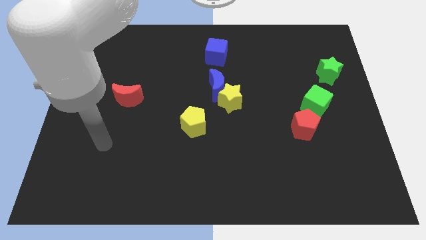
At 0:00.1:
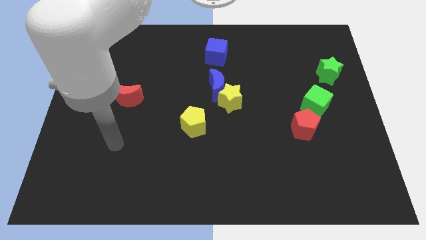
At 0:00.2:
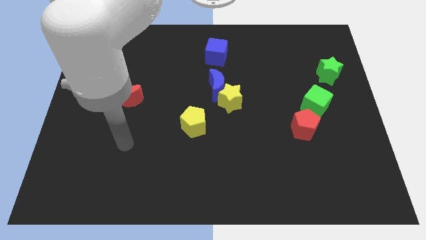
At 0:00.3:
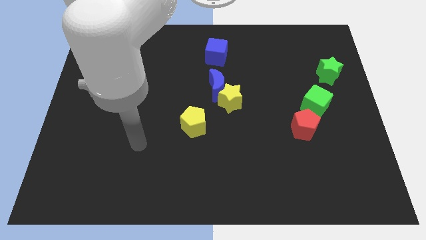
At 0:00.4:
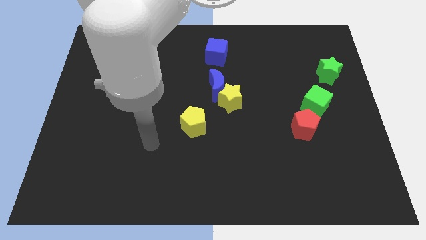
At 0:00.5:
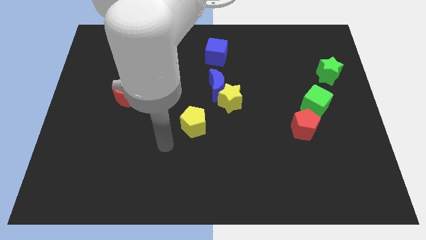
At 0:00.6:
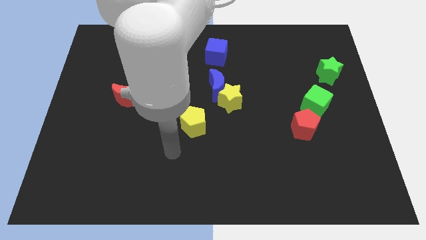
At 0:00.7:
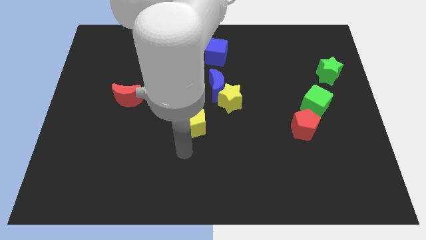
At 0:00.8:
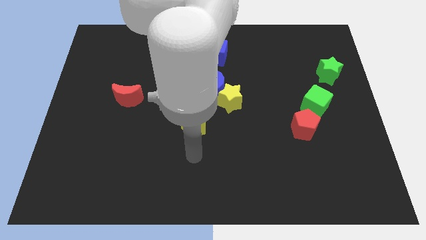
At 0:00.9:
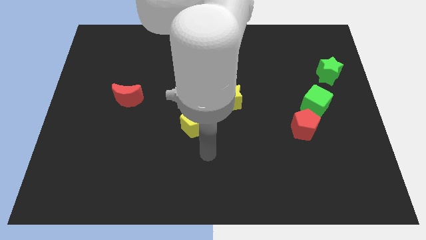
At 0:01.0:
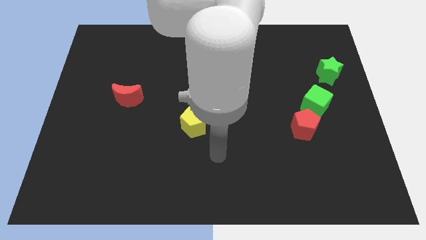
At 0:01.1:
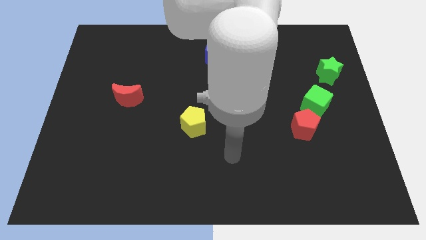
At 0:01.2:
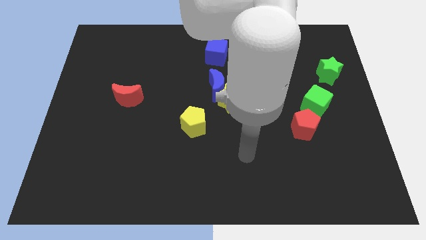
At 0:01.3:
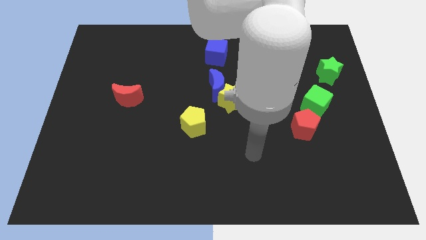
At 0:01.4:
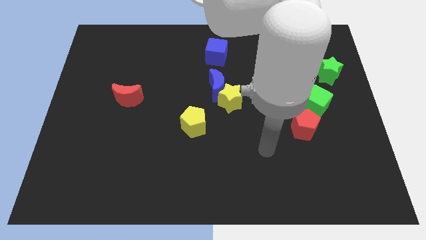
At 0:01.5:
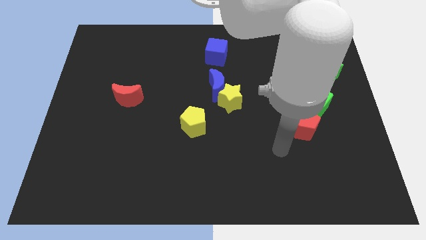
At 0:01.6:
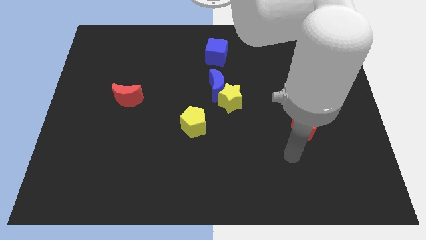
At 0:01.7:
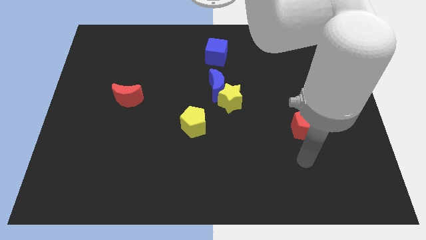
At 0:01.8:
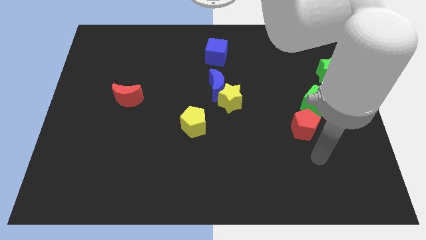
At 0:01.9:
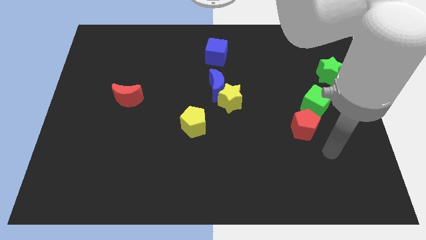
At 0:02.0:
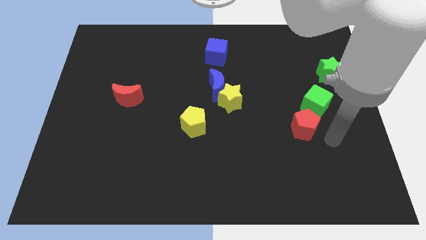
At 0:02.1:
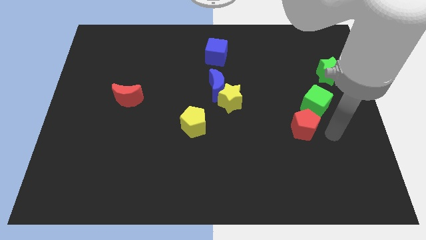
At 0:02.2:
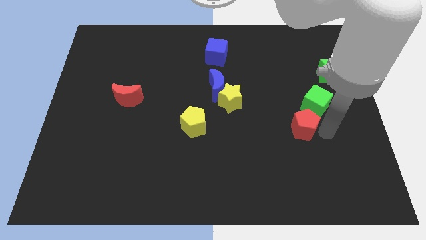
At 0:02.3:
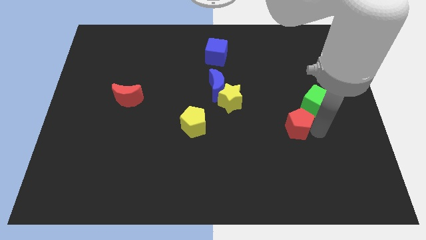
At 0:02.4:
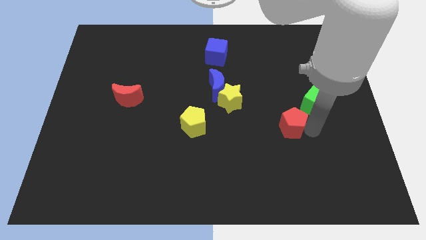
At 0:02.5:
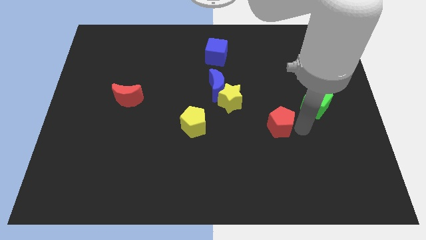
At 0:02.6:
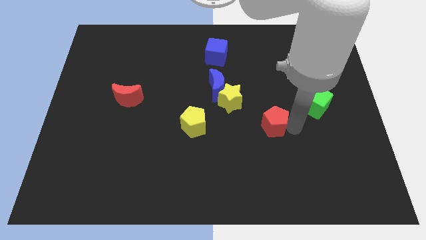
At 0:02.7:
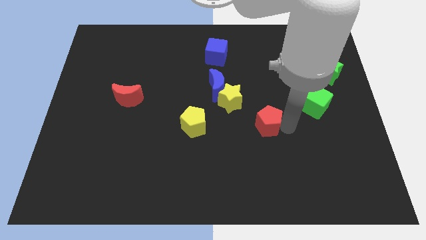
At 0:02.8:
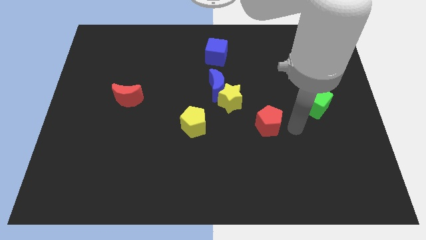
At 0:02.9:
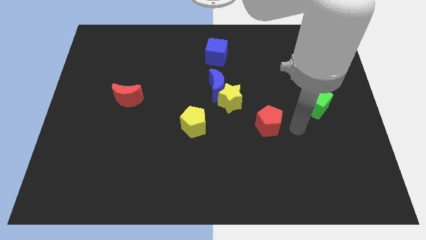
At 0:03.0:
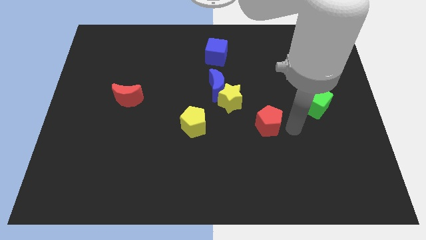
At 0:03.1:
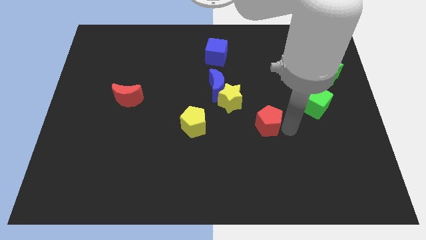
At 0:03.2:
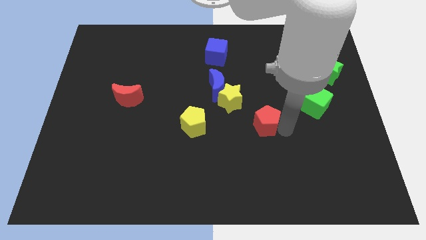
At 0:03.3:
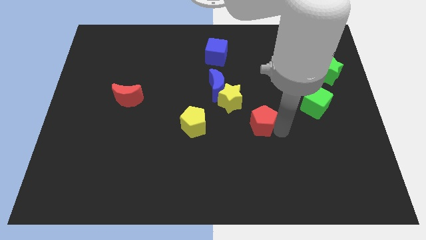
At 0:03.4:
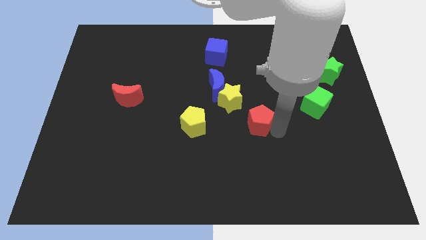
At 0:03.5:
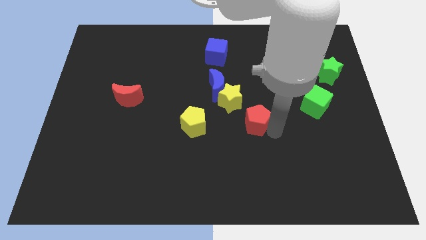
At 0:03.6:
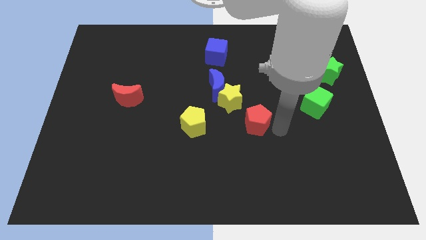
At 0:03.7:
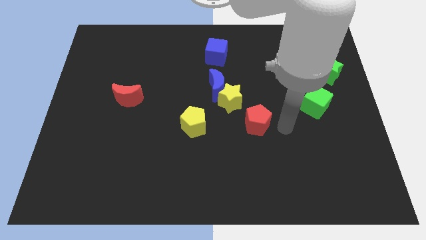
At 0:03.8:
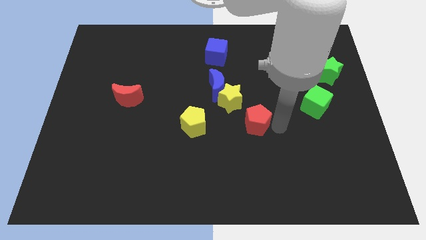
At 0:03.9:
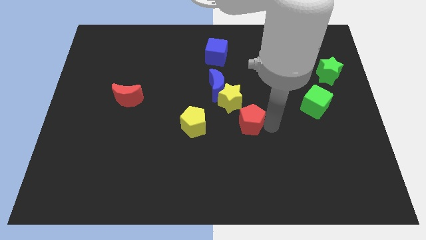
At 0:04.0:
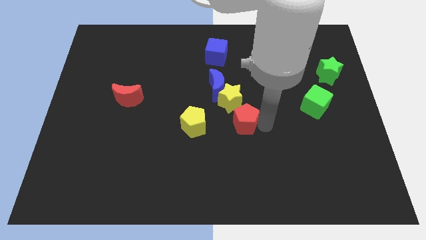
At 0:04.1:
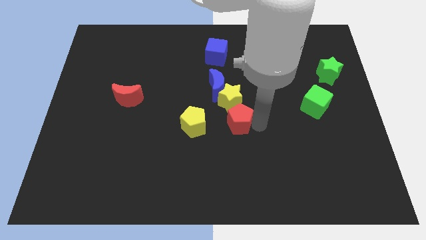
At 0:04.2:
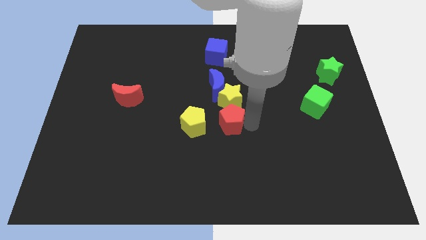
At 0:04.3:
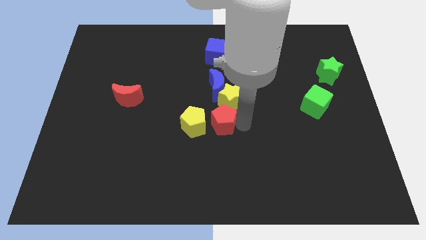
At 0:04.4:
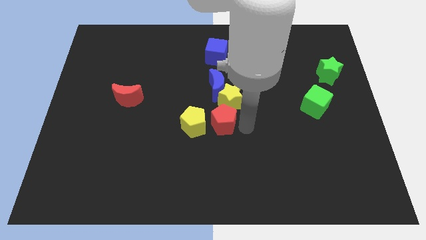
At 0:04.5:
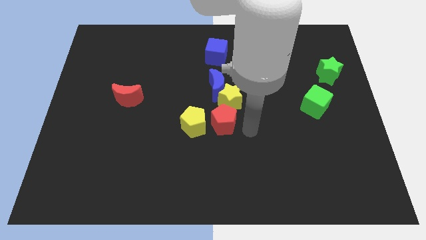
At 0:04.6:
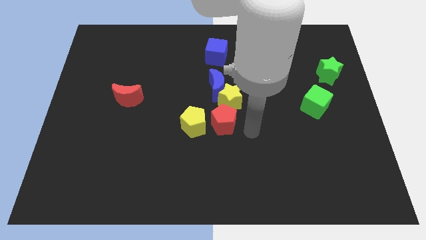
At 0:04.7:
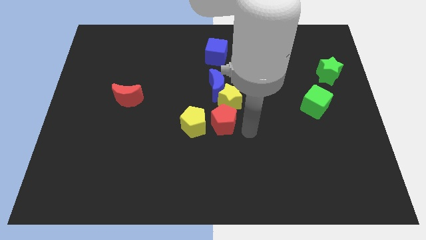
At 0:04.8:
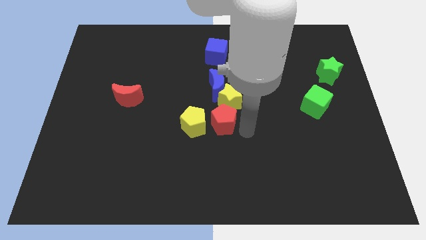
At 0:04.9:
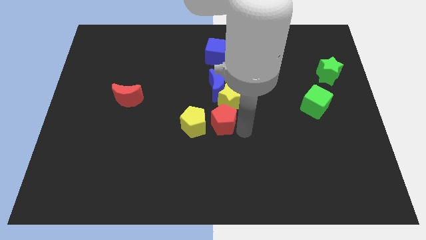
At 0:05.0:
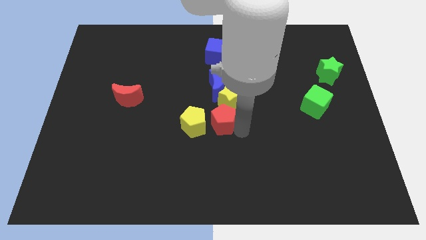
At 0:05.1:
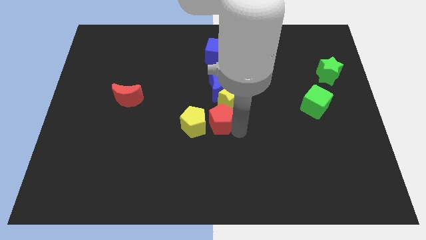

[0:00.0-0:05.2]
move the red pentagon towards the yellow pentagon

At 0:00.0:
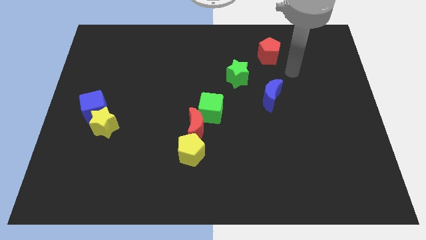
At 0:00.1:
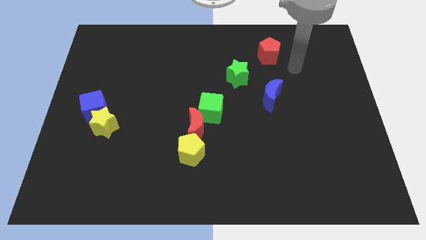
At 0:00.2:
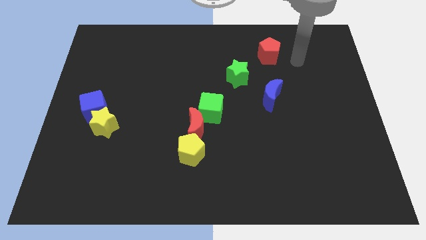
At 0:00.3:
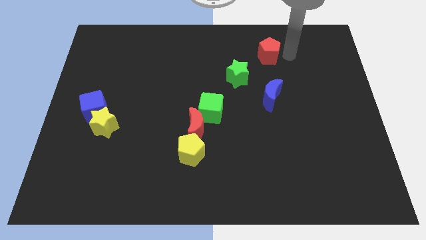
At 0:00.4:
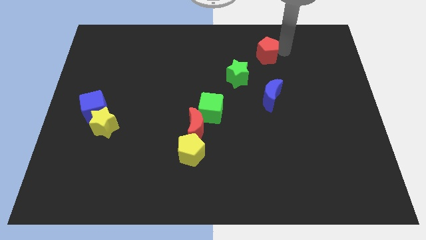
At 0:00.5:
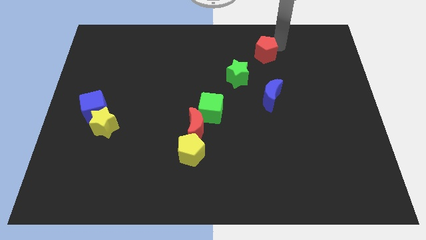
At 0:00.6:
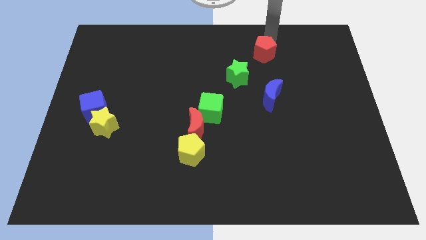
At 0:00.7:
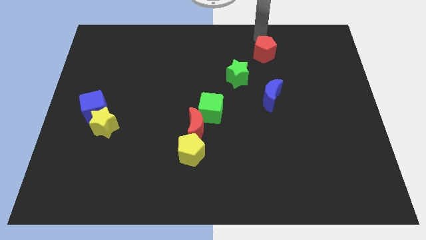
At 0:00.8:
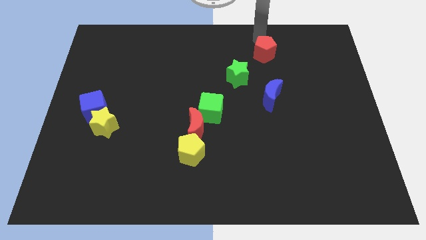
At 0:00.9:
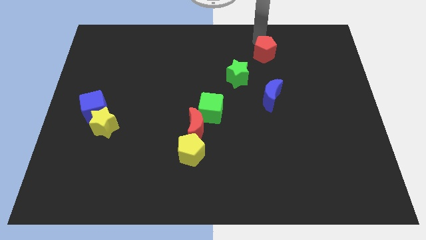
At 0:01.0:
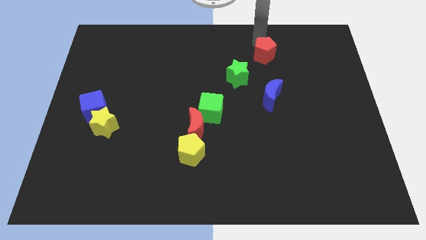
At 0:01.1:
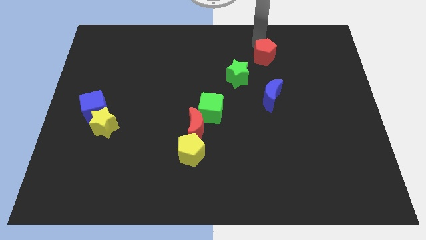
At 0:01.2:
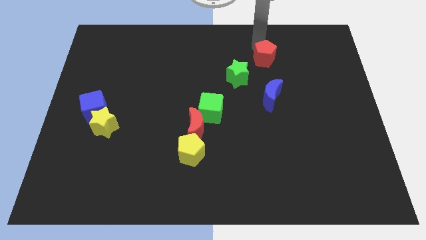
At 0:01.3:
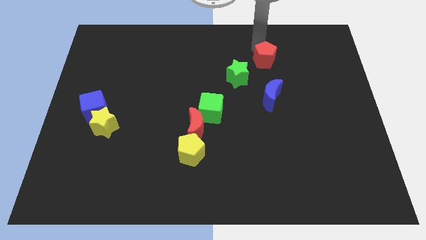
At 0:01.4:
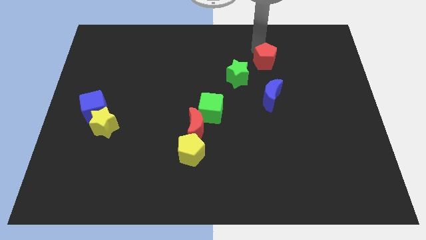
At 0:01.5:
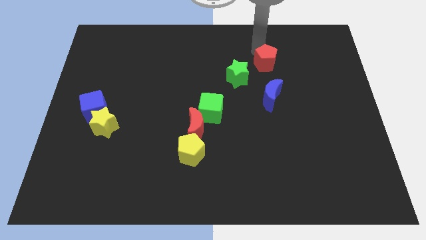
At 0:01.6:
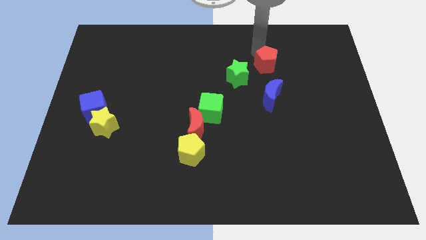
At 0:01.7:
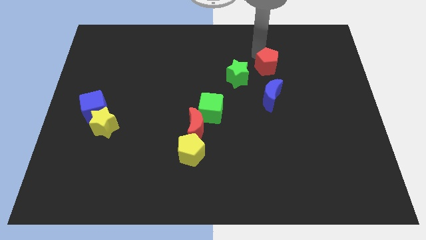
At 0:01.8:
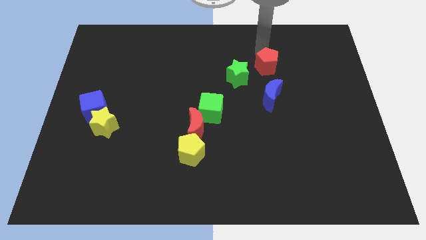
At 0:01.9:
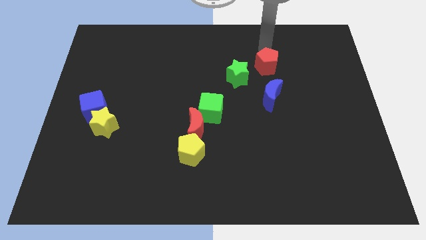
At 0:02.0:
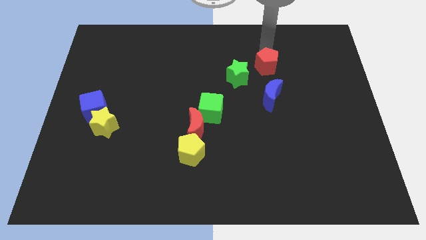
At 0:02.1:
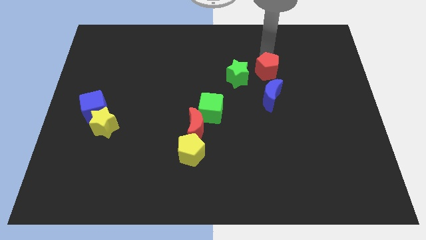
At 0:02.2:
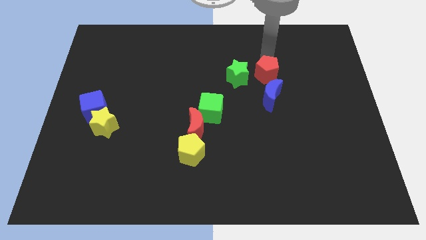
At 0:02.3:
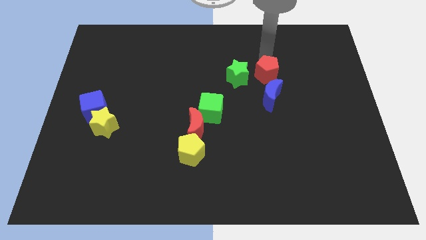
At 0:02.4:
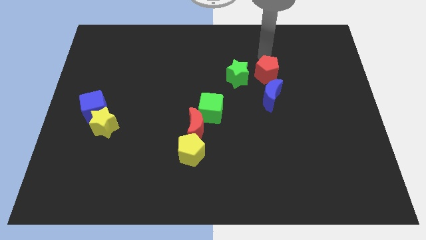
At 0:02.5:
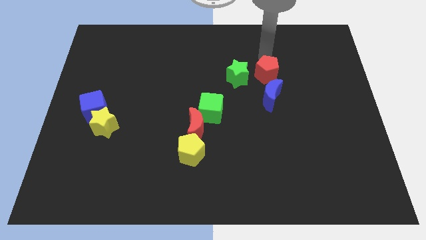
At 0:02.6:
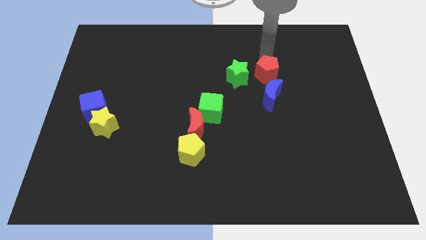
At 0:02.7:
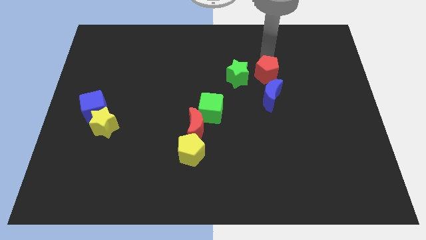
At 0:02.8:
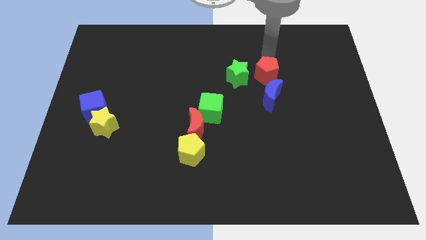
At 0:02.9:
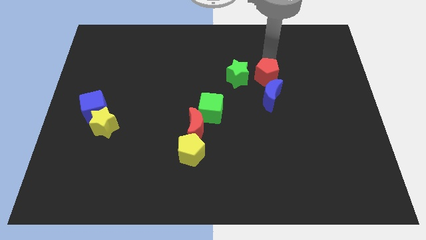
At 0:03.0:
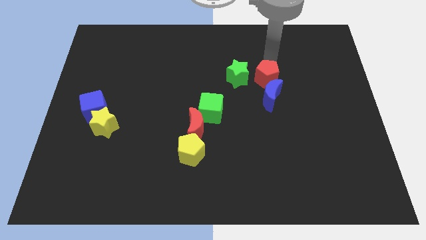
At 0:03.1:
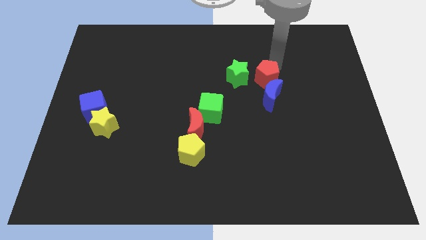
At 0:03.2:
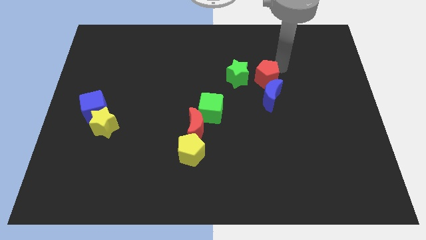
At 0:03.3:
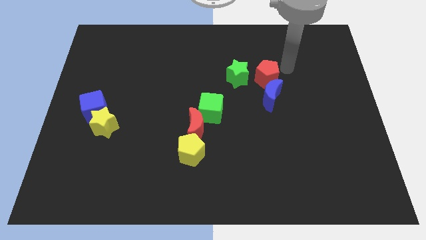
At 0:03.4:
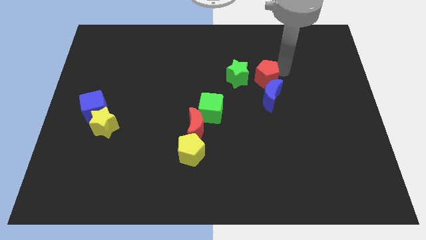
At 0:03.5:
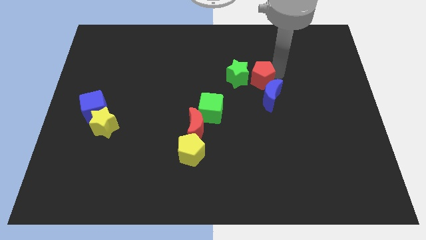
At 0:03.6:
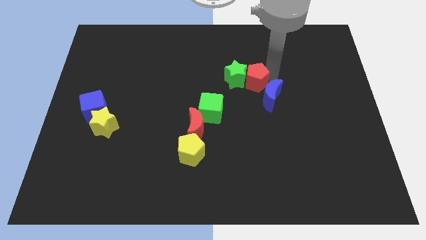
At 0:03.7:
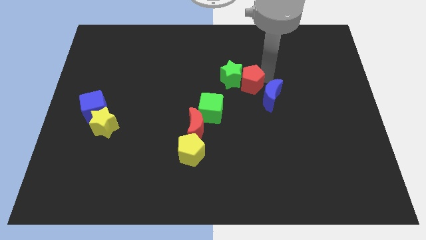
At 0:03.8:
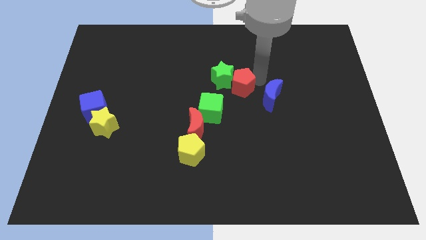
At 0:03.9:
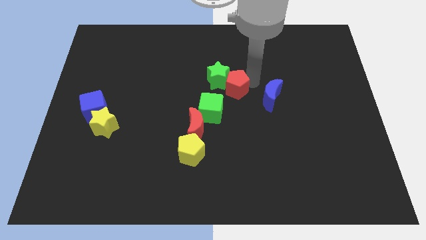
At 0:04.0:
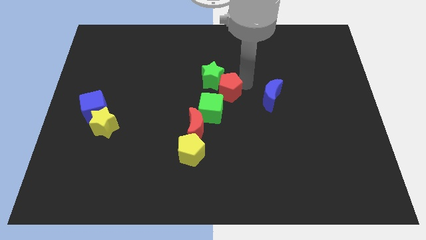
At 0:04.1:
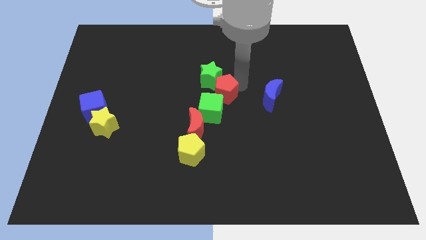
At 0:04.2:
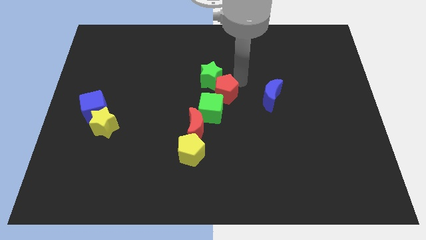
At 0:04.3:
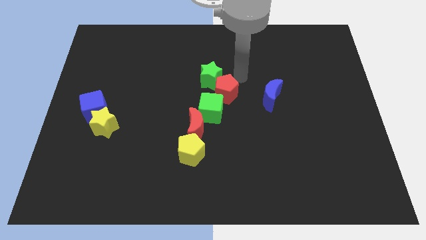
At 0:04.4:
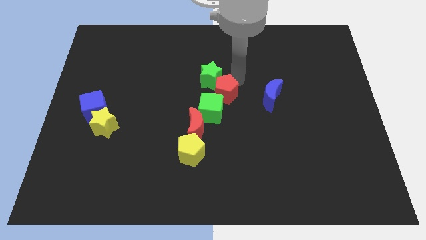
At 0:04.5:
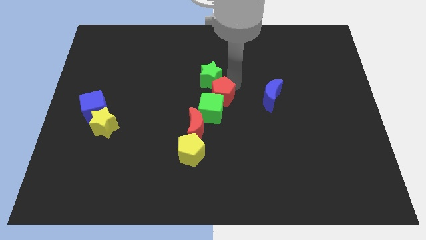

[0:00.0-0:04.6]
slide the red pentagon to the green cube
